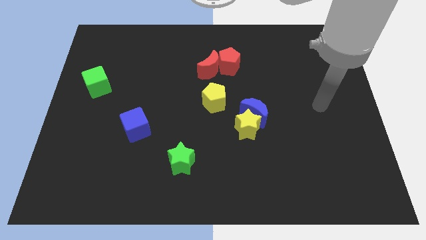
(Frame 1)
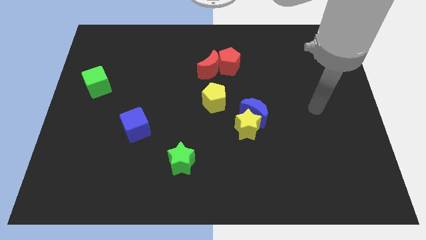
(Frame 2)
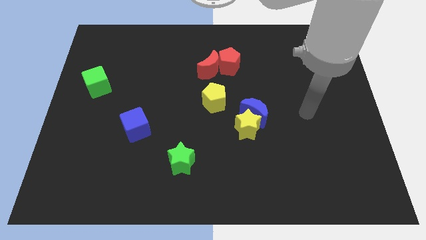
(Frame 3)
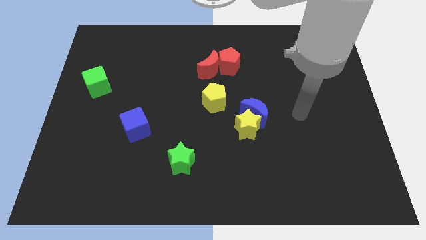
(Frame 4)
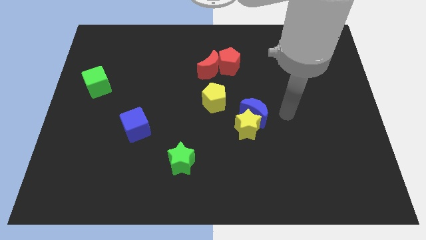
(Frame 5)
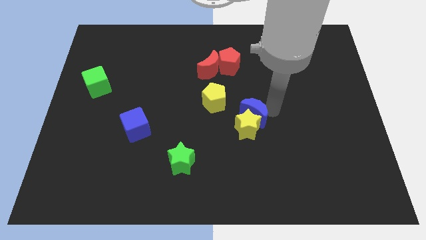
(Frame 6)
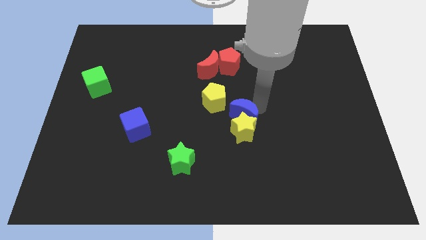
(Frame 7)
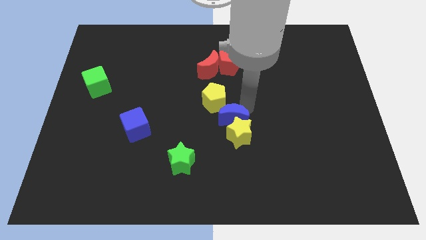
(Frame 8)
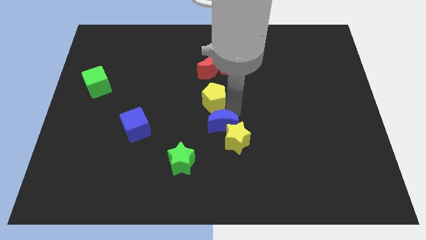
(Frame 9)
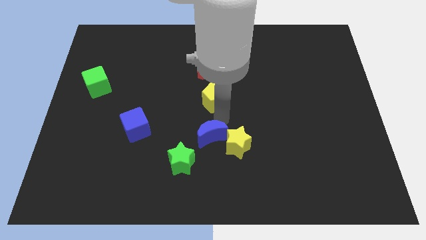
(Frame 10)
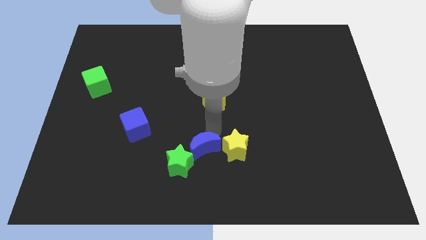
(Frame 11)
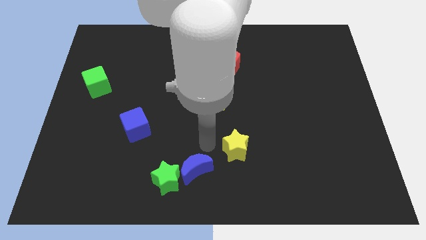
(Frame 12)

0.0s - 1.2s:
separate the yellow star from the blue moon

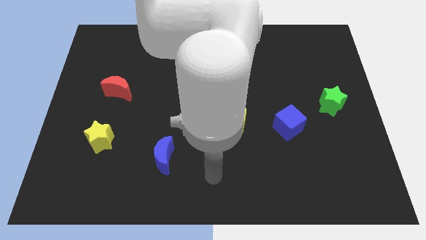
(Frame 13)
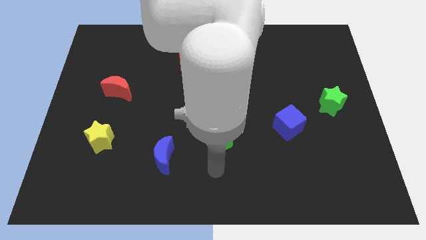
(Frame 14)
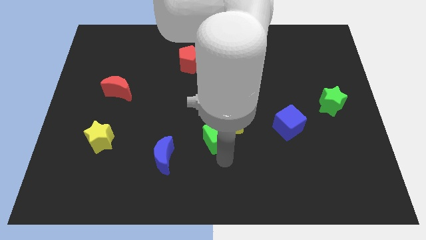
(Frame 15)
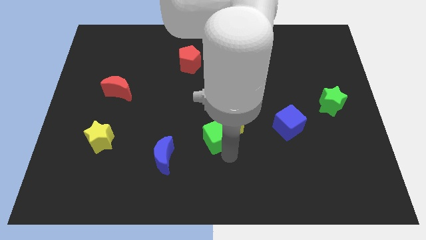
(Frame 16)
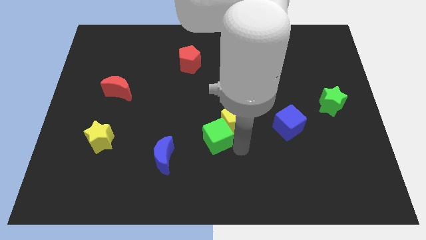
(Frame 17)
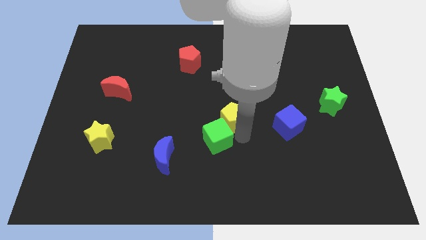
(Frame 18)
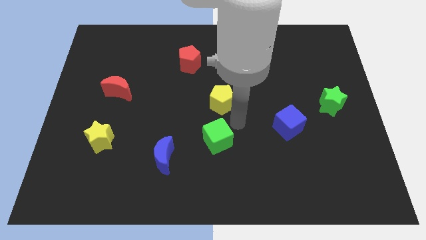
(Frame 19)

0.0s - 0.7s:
separate the green cube from the yellow pentagon

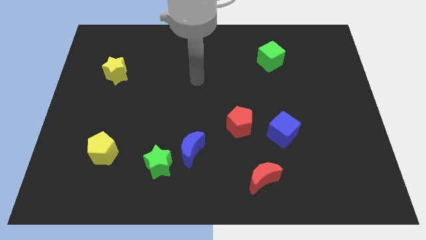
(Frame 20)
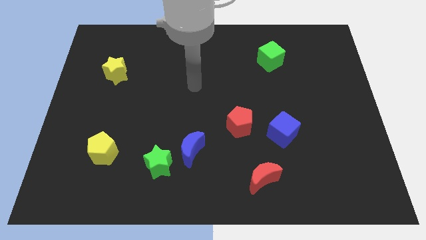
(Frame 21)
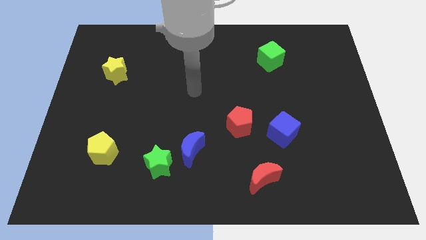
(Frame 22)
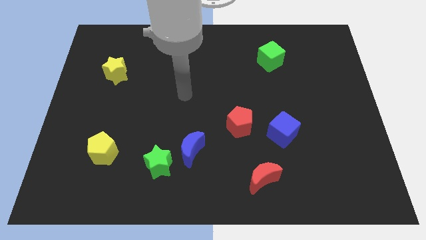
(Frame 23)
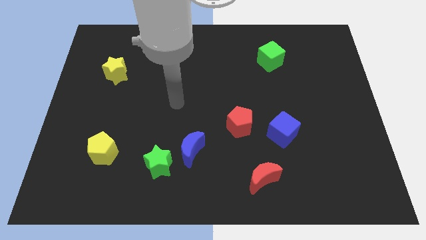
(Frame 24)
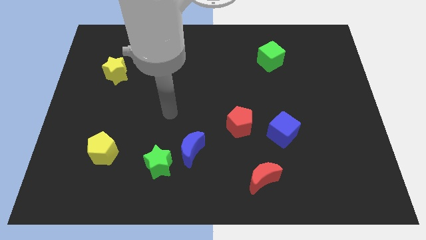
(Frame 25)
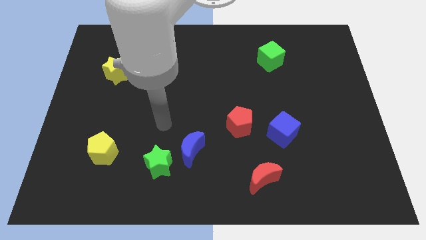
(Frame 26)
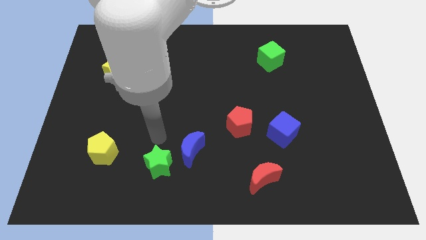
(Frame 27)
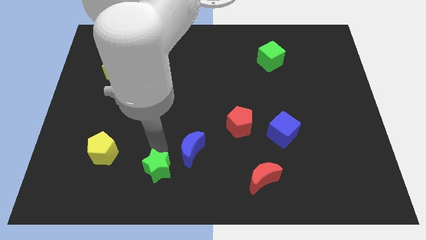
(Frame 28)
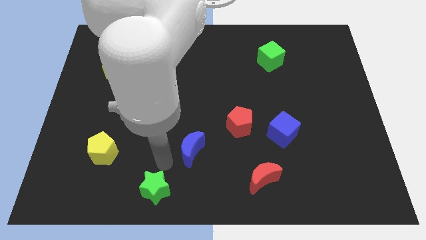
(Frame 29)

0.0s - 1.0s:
pull the blue moon apart from the green star

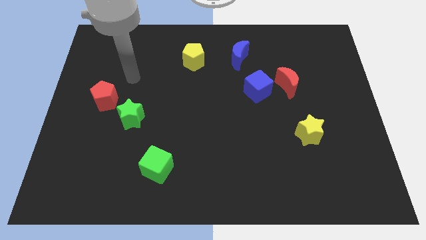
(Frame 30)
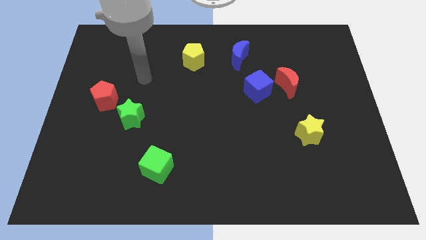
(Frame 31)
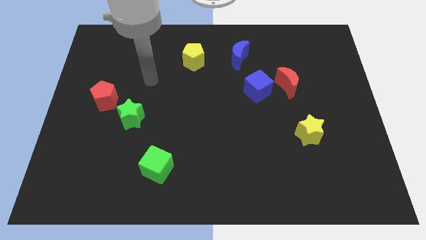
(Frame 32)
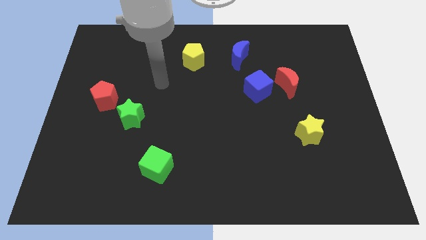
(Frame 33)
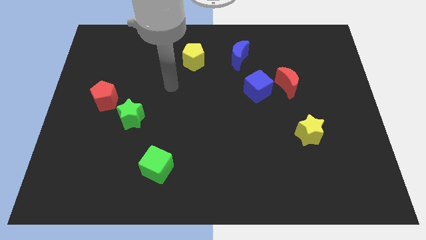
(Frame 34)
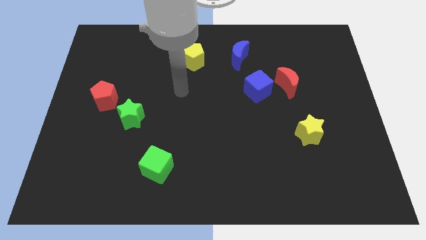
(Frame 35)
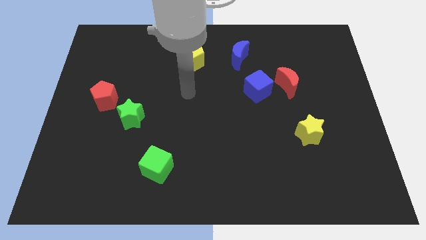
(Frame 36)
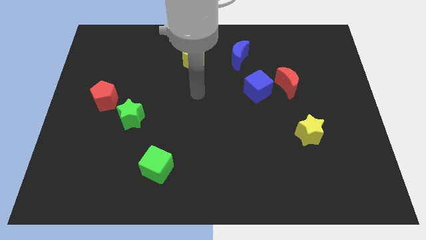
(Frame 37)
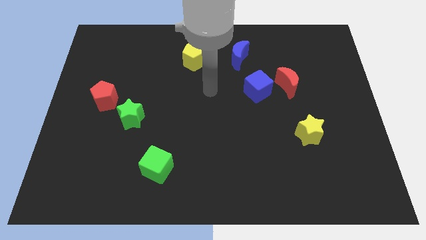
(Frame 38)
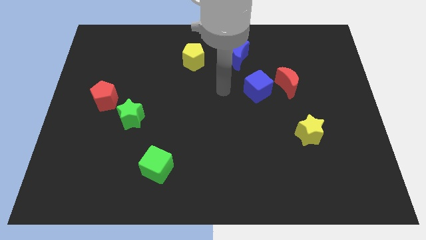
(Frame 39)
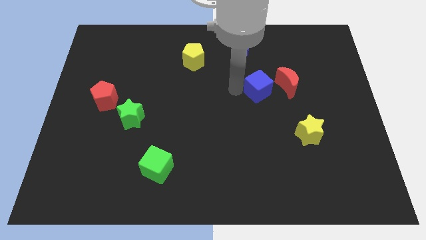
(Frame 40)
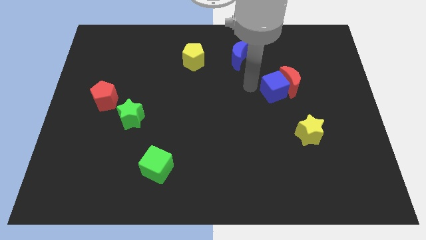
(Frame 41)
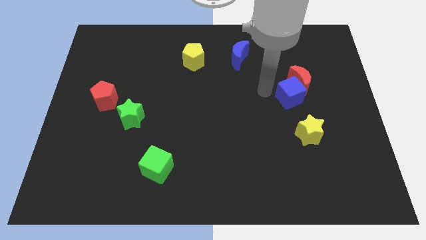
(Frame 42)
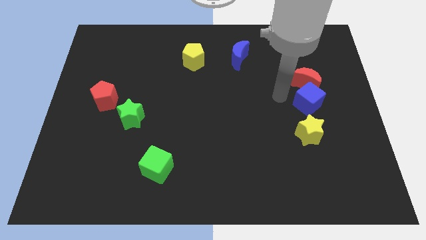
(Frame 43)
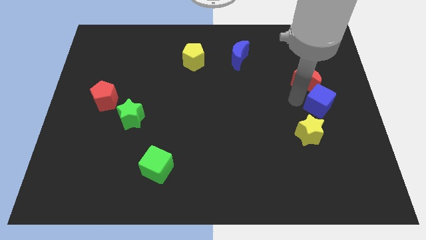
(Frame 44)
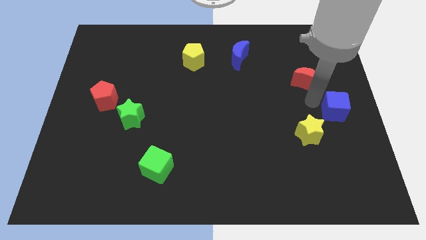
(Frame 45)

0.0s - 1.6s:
move the red moon away from the blue cube

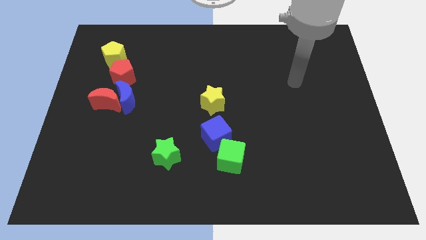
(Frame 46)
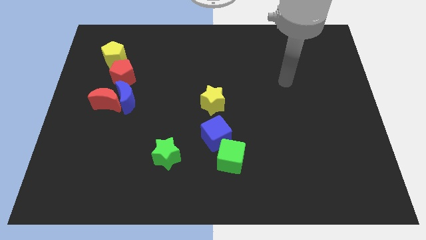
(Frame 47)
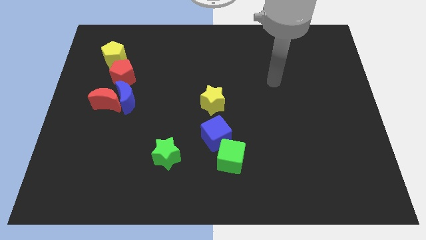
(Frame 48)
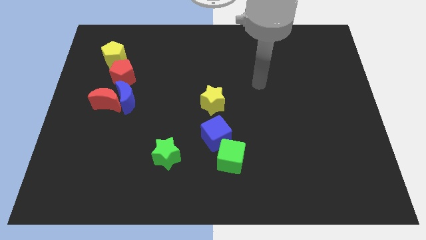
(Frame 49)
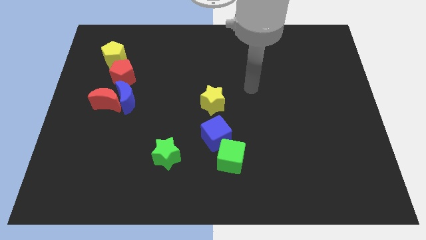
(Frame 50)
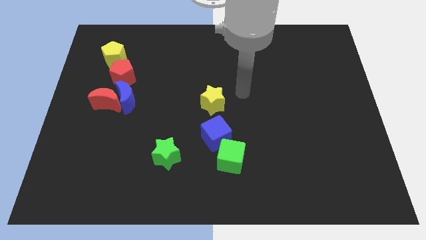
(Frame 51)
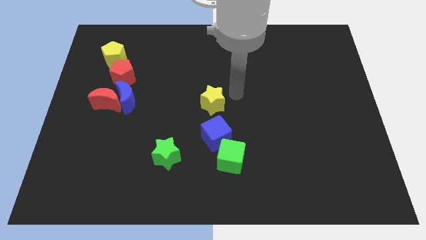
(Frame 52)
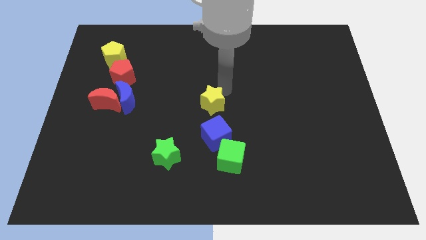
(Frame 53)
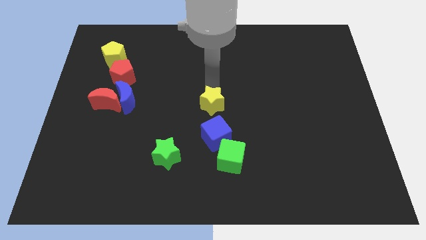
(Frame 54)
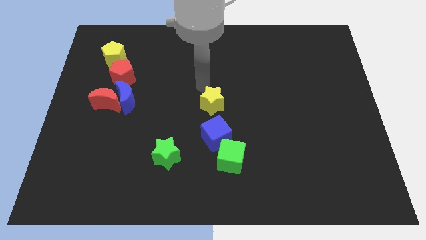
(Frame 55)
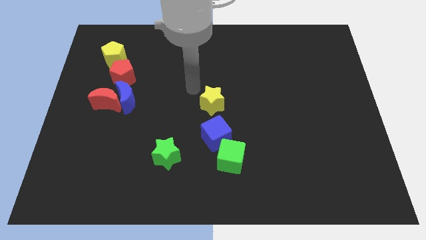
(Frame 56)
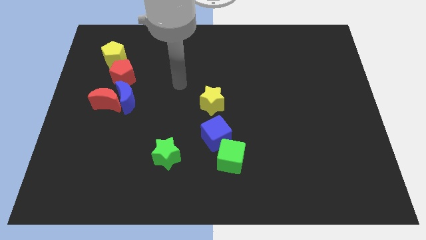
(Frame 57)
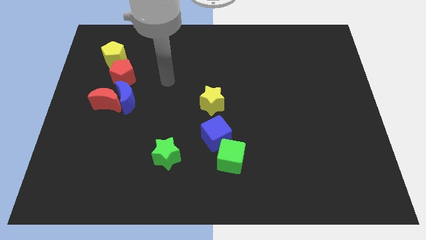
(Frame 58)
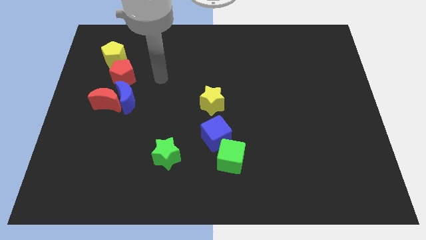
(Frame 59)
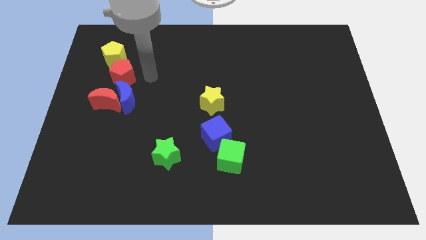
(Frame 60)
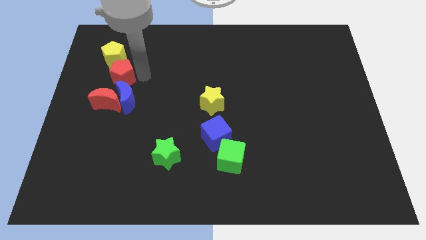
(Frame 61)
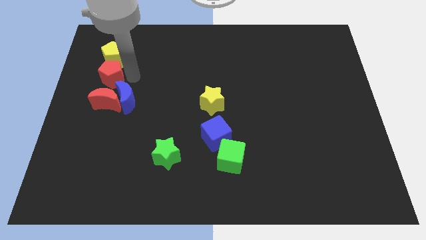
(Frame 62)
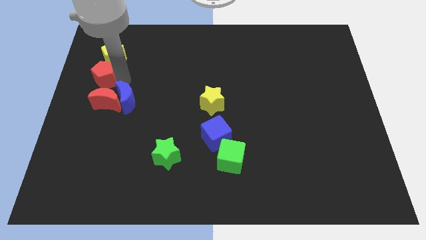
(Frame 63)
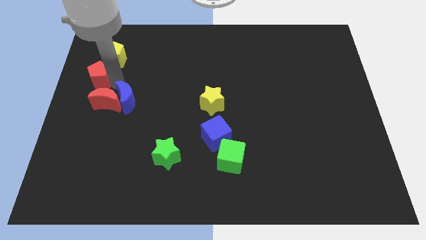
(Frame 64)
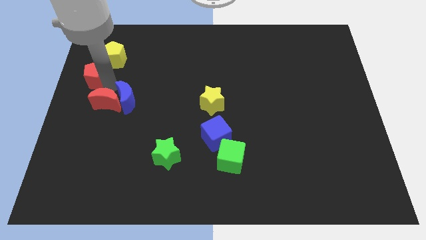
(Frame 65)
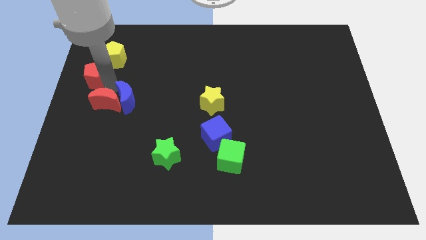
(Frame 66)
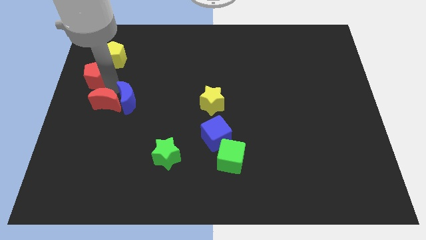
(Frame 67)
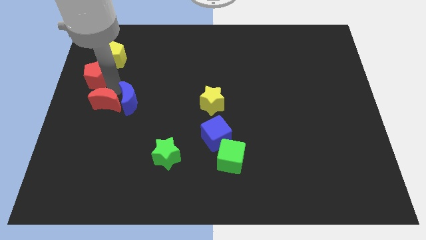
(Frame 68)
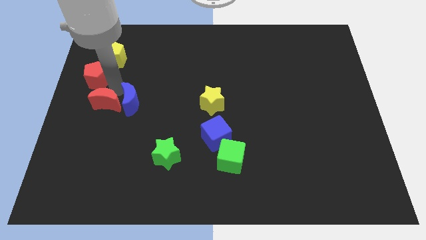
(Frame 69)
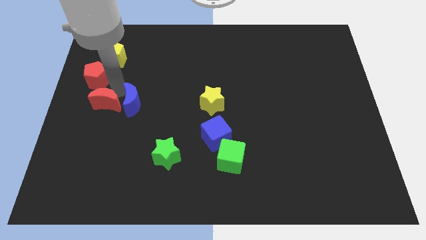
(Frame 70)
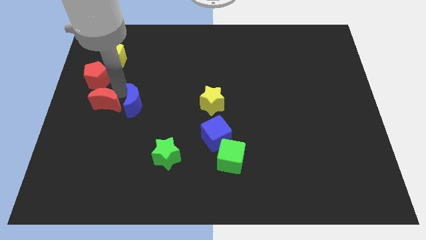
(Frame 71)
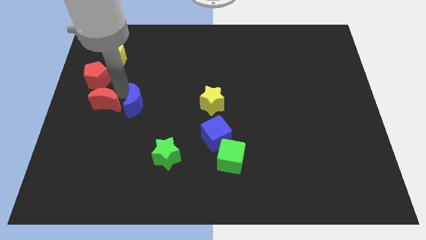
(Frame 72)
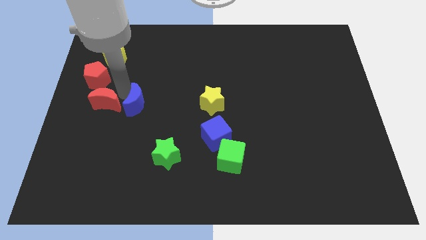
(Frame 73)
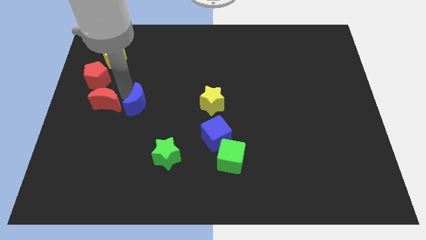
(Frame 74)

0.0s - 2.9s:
move the blue moon away from the red moon and red pentagon

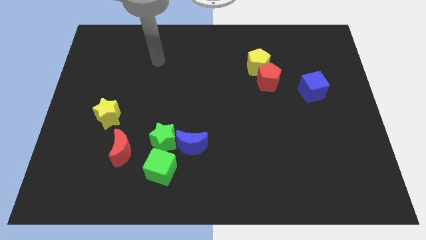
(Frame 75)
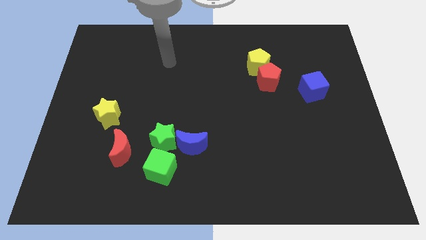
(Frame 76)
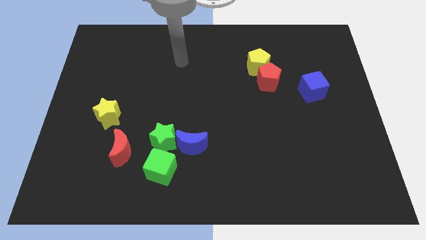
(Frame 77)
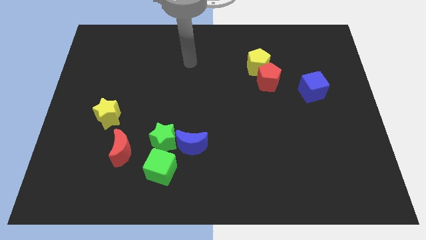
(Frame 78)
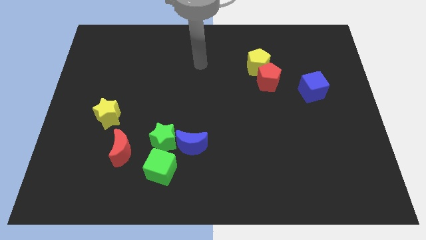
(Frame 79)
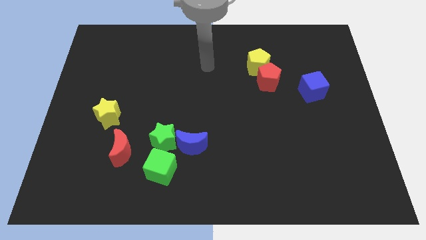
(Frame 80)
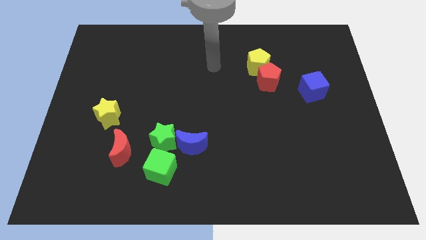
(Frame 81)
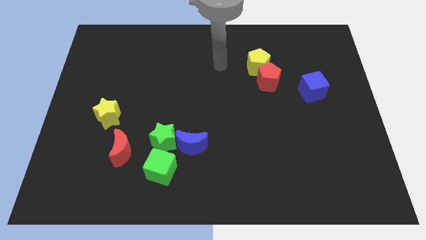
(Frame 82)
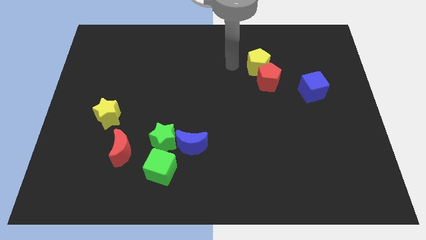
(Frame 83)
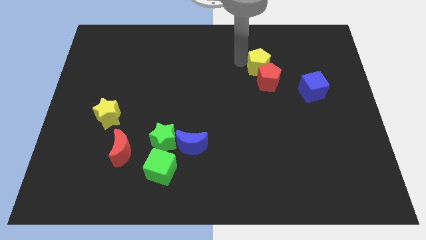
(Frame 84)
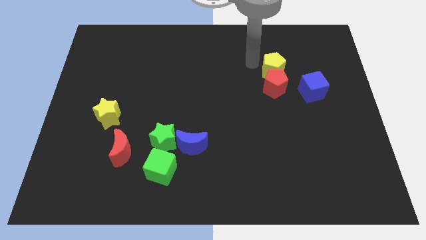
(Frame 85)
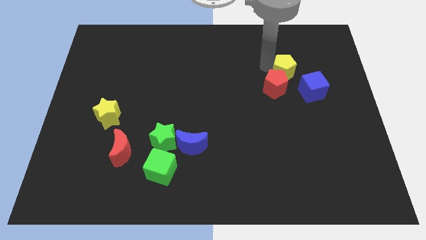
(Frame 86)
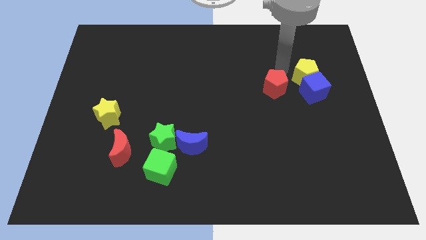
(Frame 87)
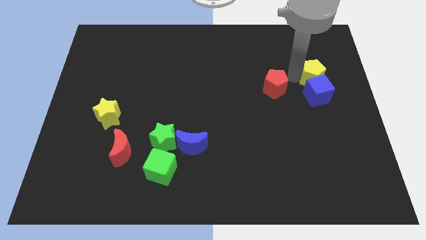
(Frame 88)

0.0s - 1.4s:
move the red pentagon away from the yellow pentagon

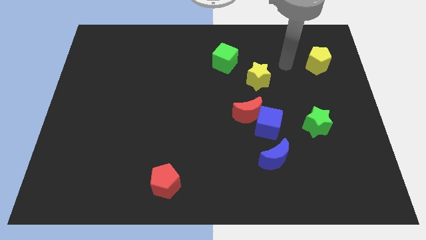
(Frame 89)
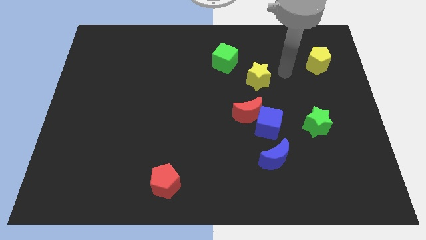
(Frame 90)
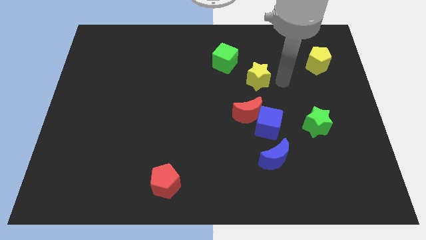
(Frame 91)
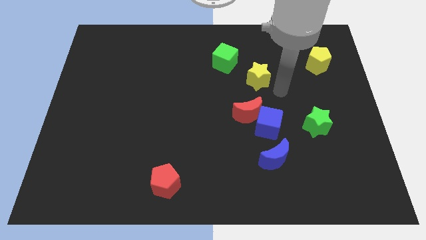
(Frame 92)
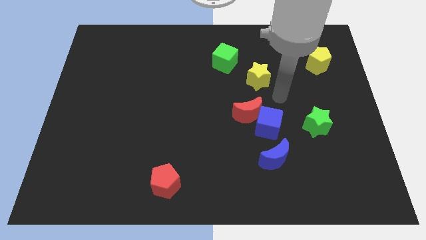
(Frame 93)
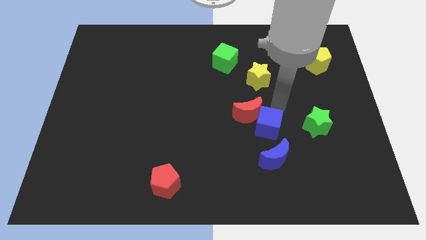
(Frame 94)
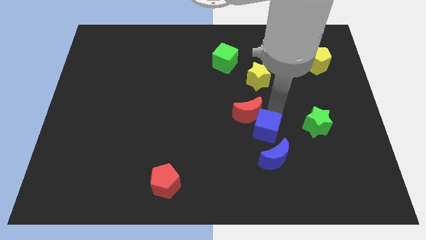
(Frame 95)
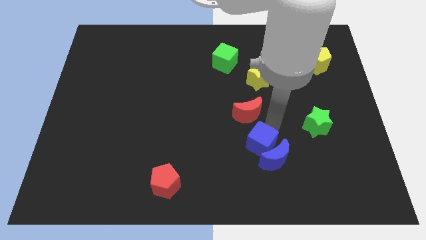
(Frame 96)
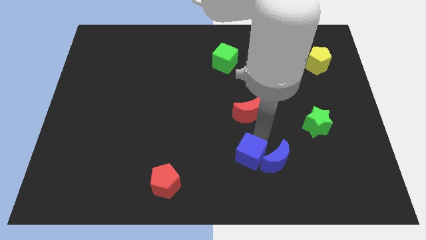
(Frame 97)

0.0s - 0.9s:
pull the red moon apart from the blue cube
